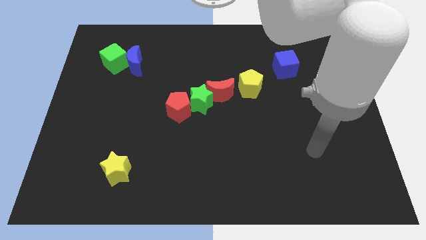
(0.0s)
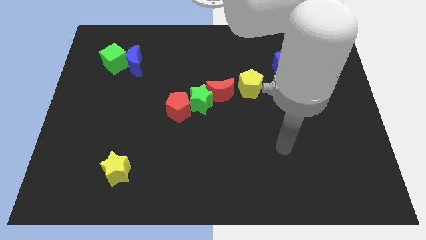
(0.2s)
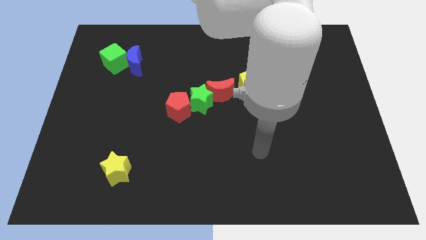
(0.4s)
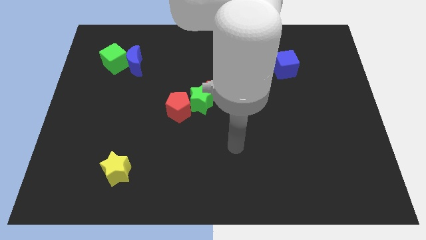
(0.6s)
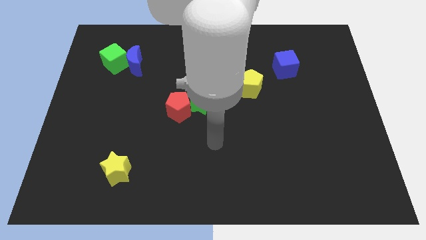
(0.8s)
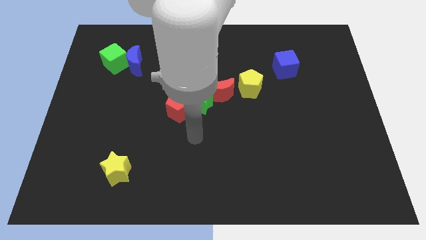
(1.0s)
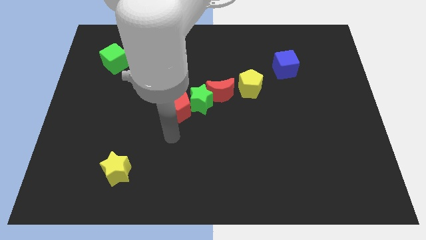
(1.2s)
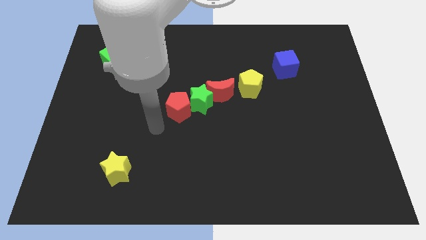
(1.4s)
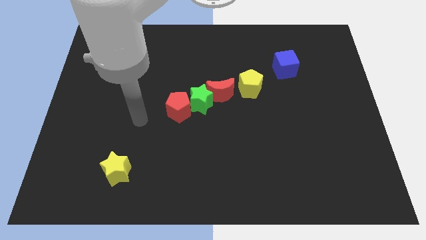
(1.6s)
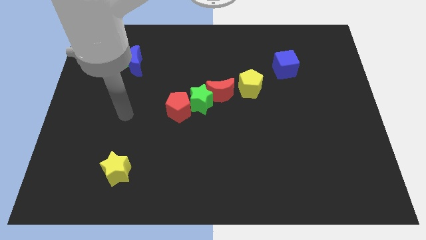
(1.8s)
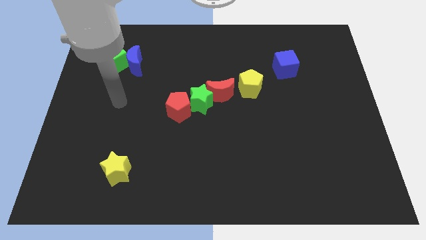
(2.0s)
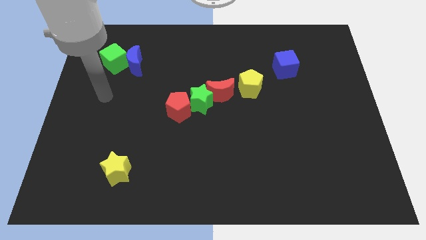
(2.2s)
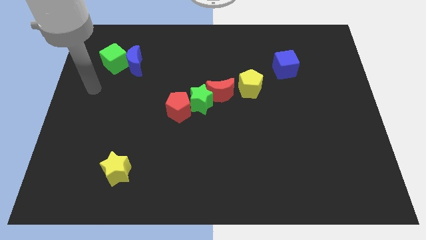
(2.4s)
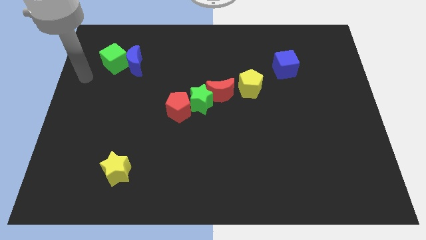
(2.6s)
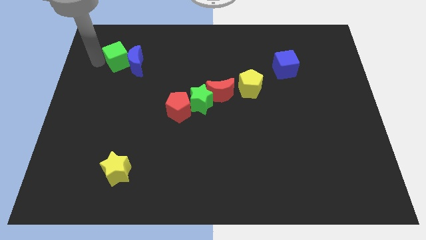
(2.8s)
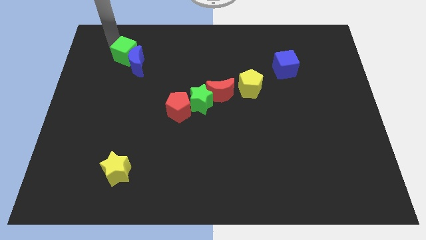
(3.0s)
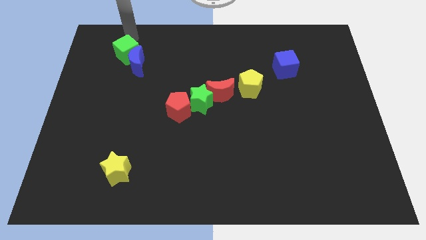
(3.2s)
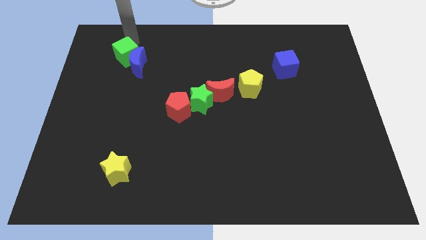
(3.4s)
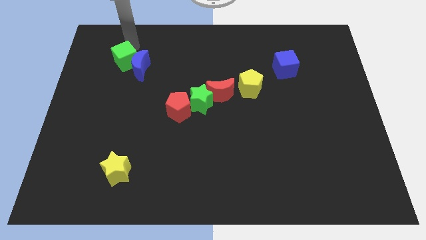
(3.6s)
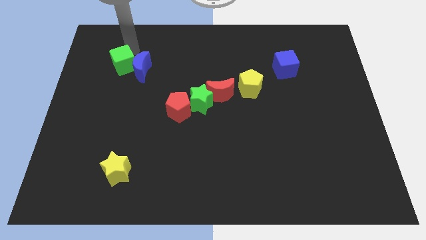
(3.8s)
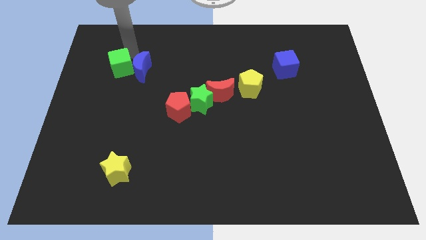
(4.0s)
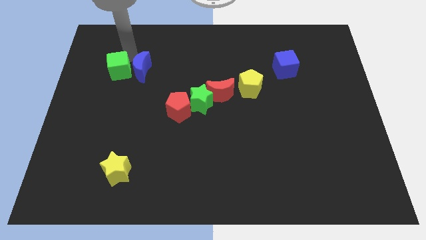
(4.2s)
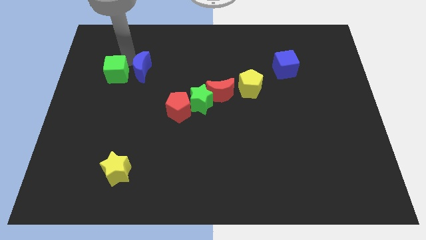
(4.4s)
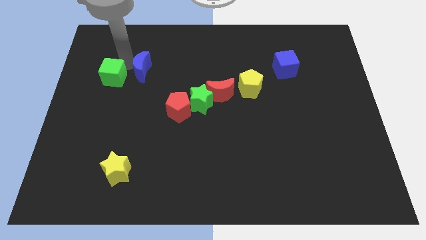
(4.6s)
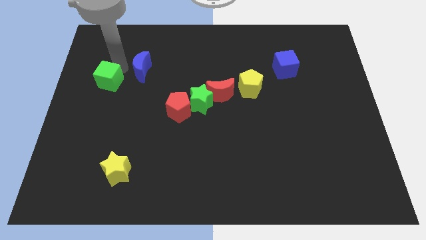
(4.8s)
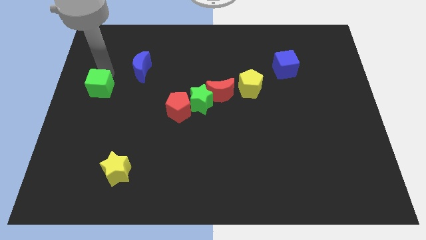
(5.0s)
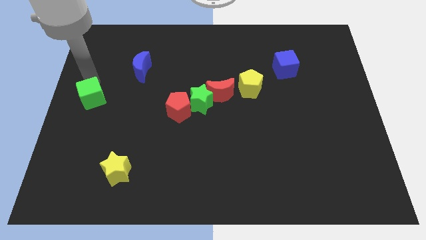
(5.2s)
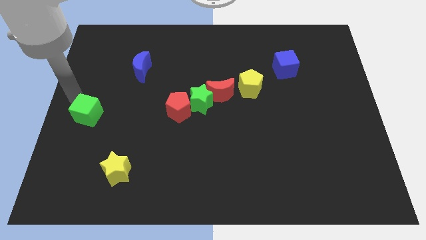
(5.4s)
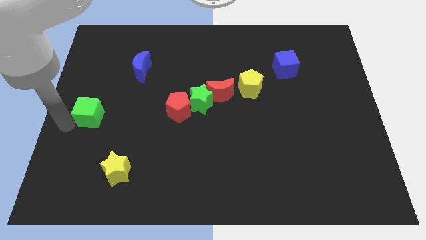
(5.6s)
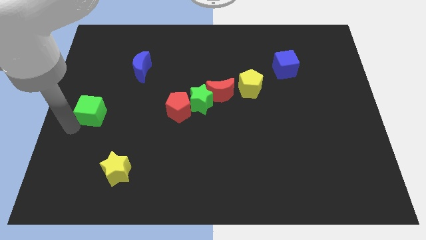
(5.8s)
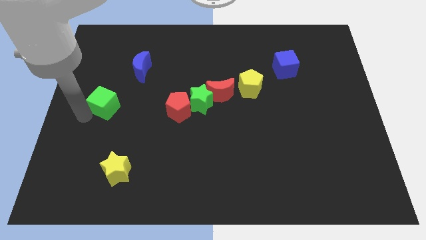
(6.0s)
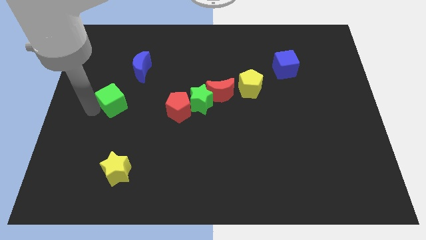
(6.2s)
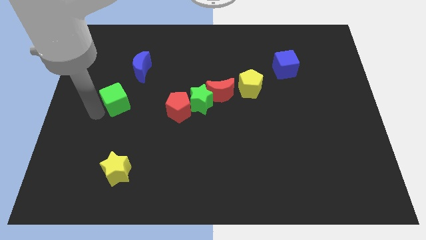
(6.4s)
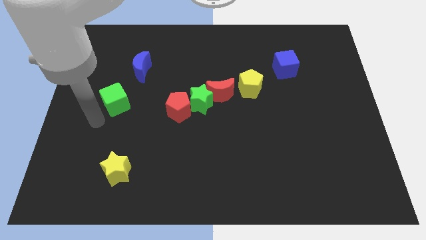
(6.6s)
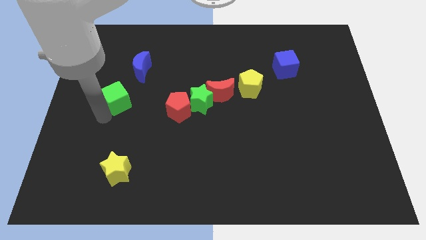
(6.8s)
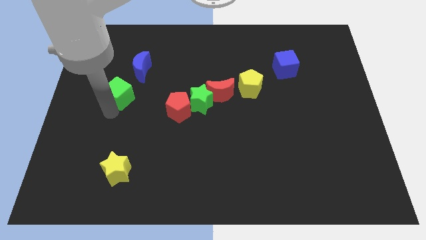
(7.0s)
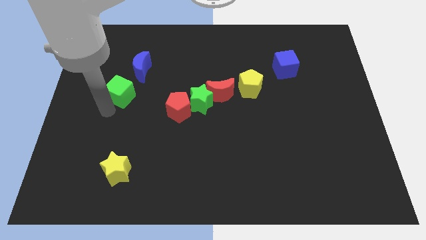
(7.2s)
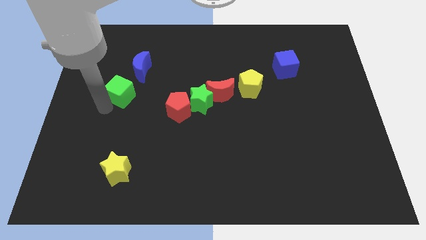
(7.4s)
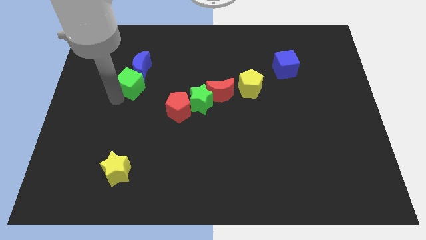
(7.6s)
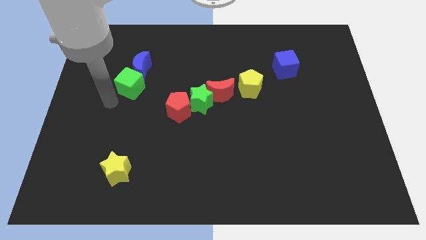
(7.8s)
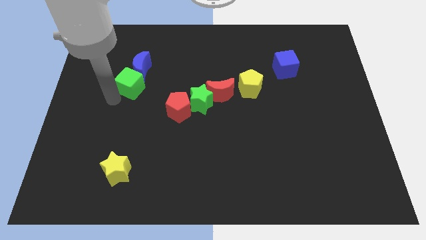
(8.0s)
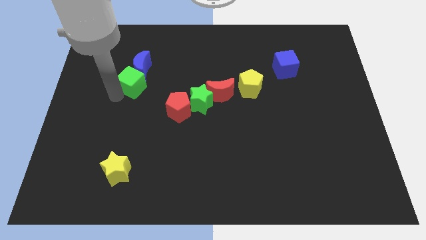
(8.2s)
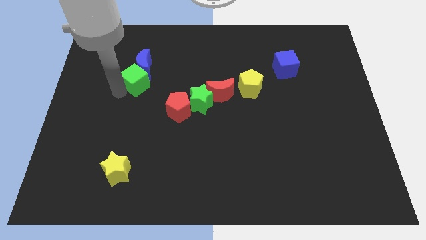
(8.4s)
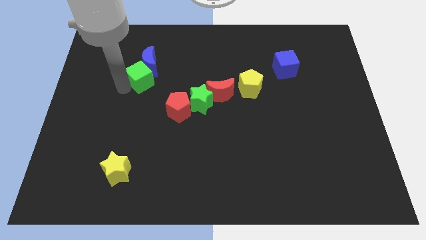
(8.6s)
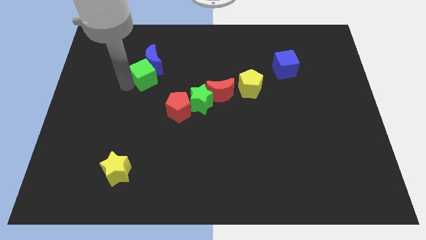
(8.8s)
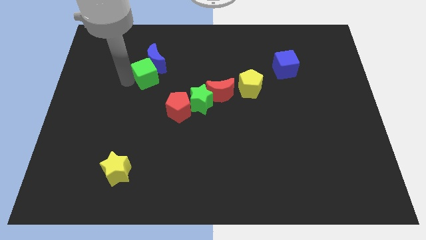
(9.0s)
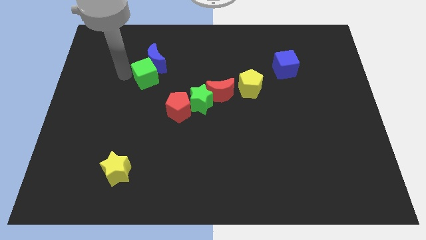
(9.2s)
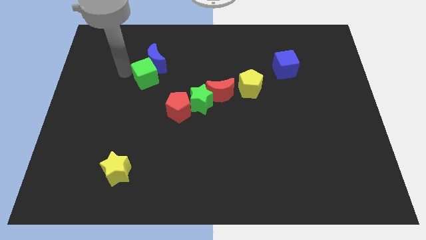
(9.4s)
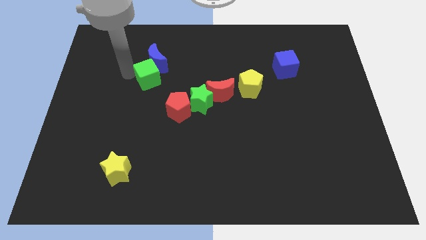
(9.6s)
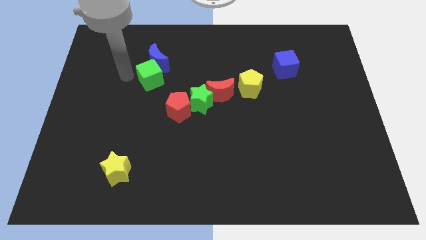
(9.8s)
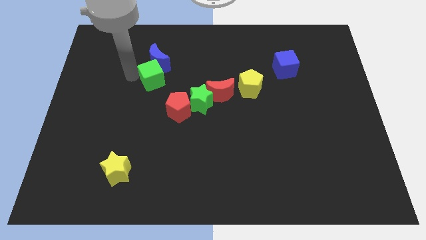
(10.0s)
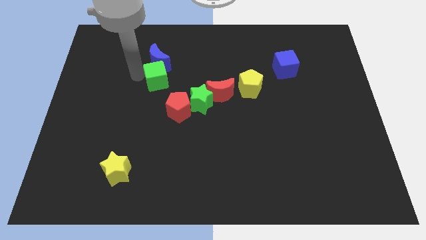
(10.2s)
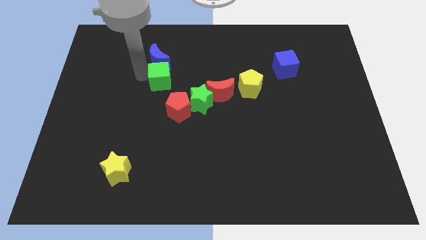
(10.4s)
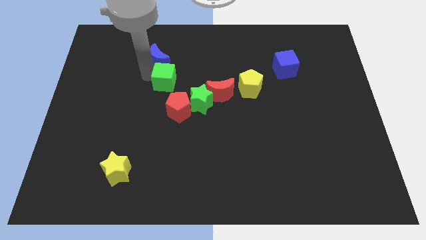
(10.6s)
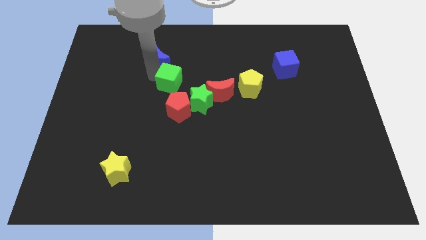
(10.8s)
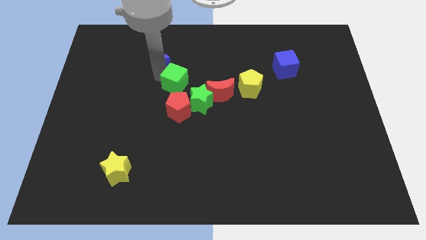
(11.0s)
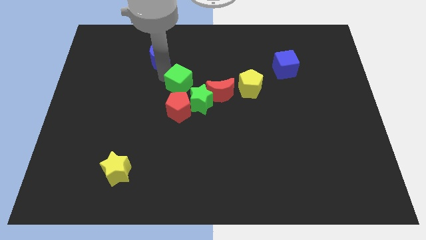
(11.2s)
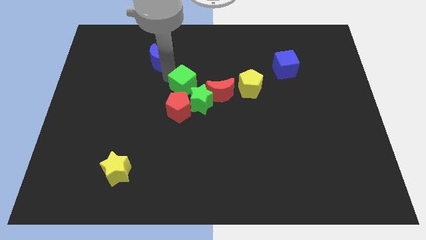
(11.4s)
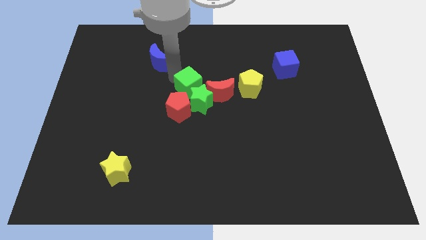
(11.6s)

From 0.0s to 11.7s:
put the green cube towards the green star

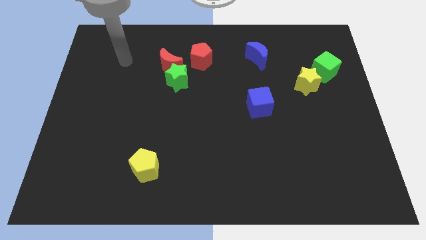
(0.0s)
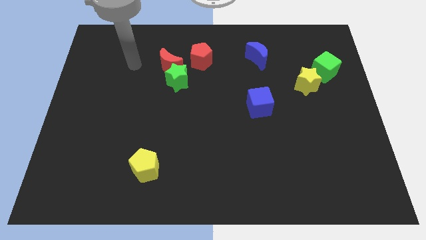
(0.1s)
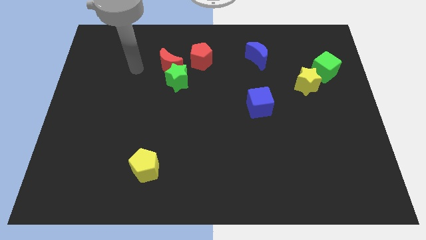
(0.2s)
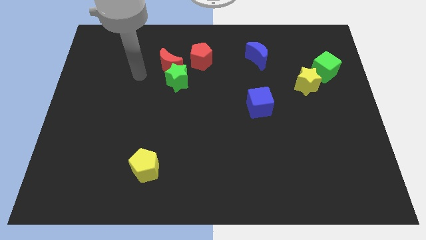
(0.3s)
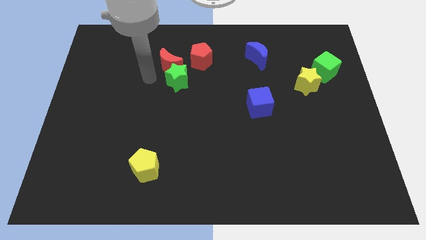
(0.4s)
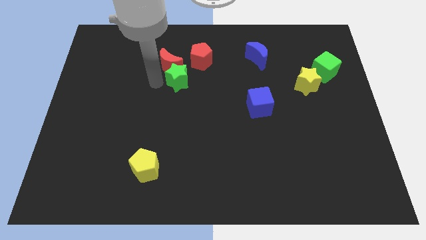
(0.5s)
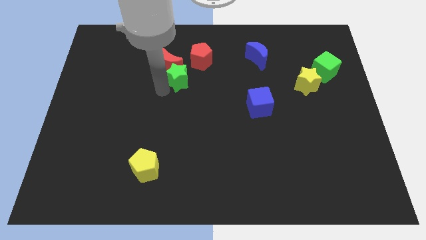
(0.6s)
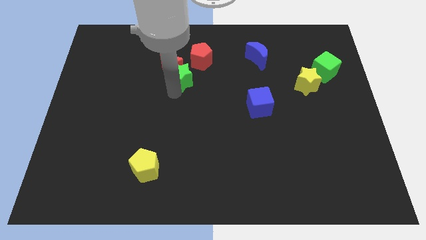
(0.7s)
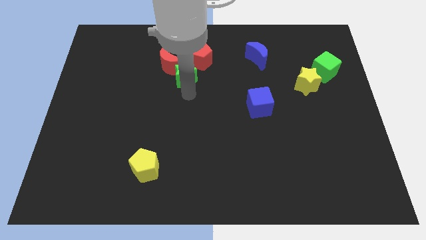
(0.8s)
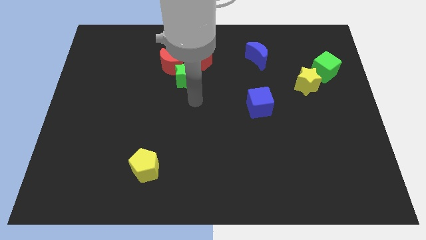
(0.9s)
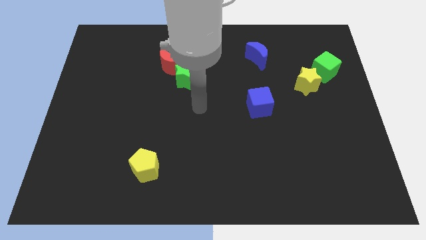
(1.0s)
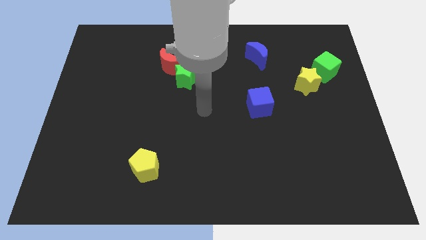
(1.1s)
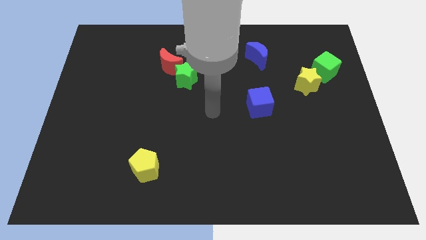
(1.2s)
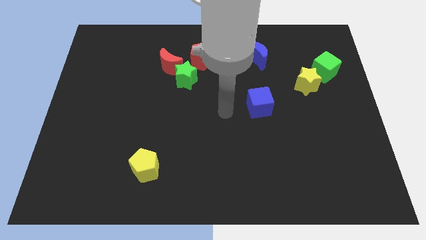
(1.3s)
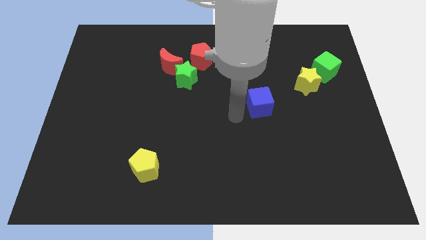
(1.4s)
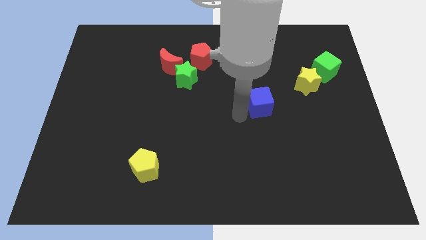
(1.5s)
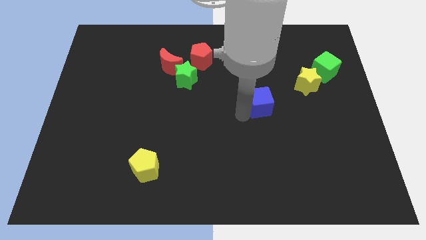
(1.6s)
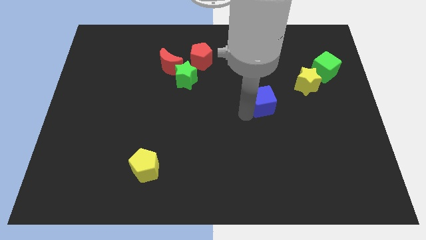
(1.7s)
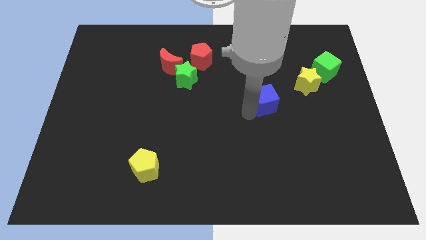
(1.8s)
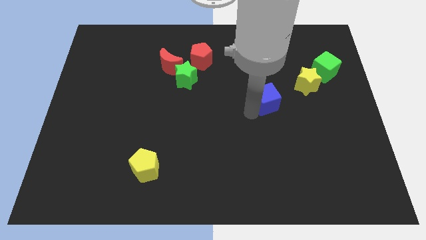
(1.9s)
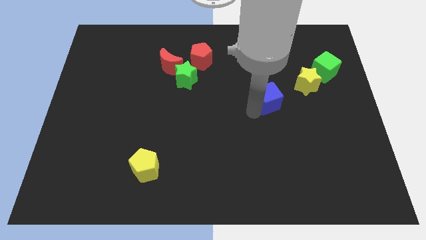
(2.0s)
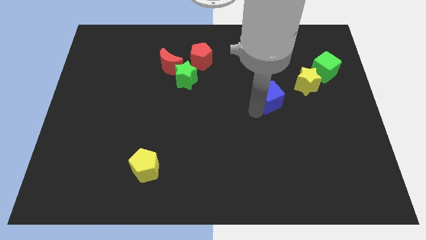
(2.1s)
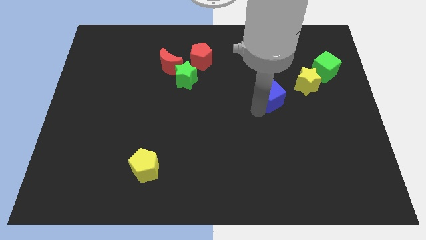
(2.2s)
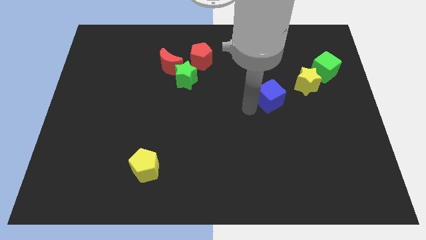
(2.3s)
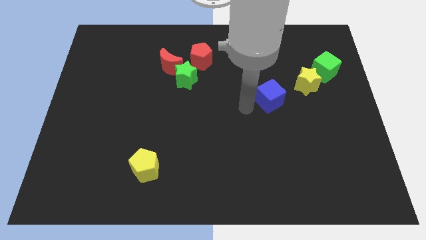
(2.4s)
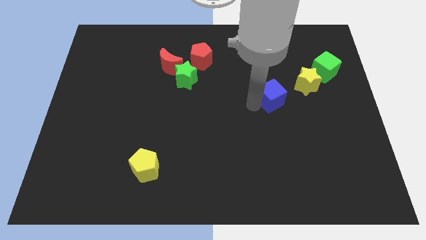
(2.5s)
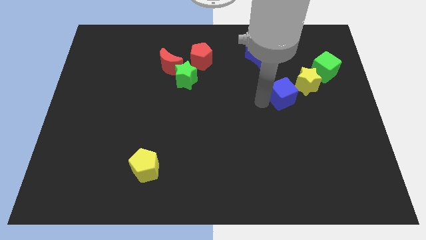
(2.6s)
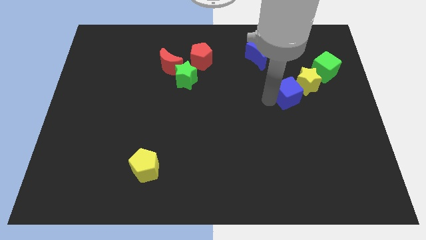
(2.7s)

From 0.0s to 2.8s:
move the blue cube to the yellow star
